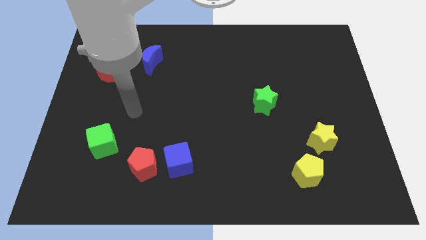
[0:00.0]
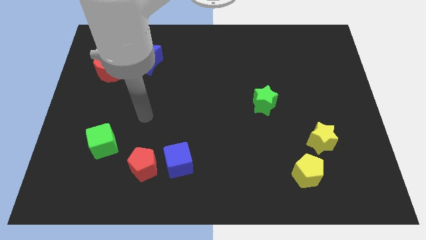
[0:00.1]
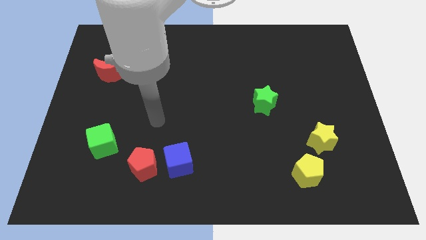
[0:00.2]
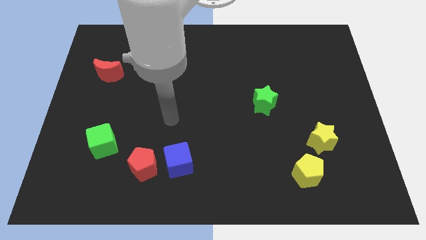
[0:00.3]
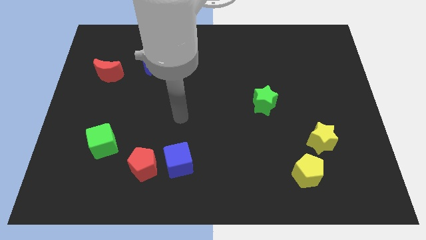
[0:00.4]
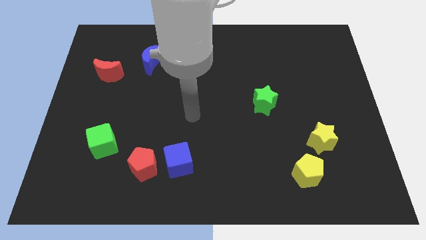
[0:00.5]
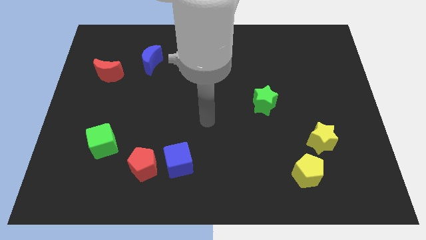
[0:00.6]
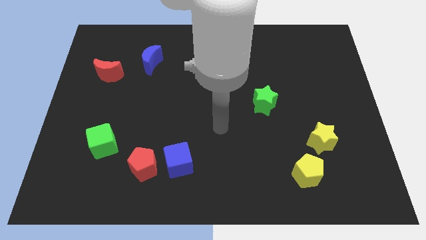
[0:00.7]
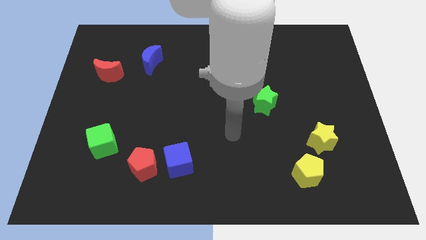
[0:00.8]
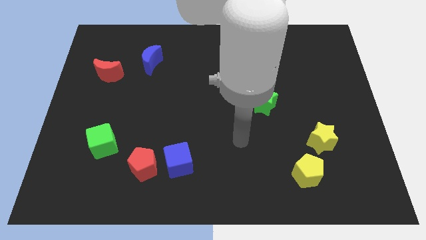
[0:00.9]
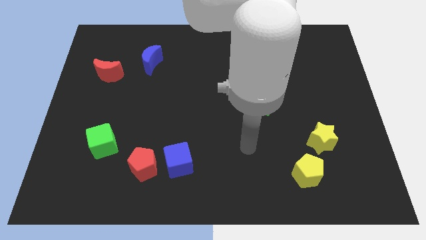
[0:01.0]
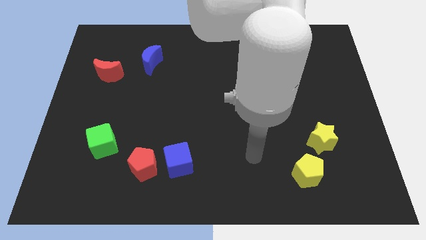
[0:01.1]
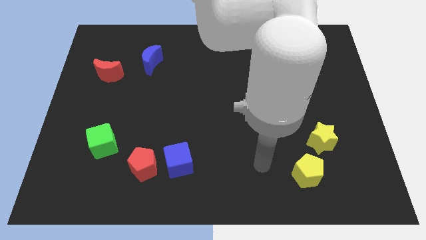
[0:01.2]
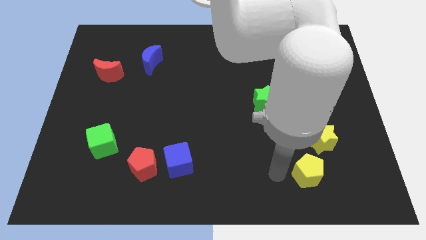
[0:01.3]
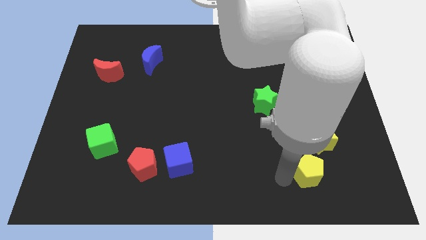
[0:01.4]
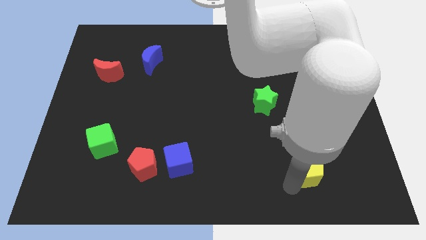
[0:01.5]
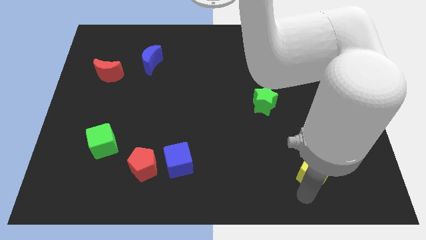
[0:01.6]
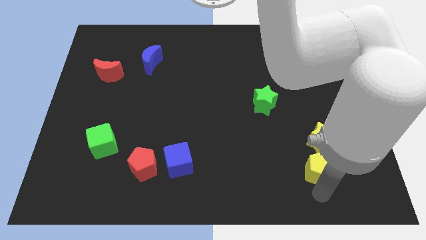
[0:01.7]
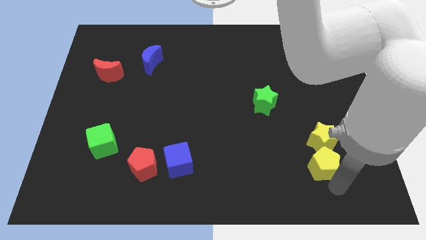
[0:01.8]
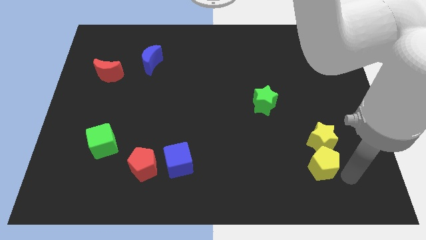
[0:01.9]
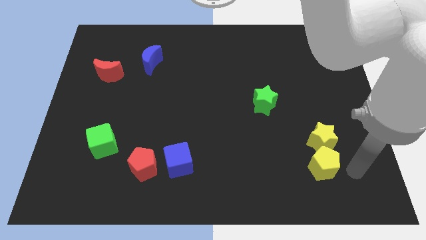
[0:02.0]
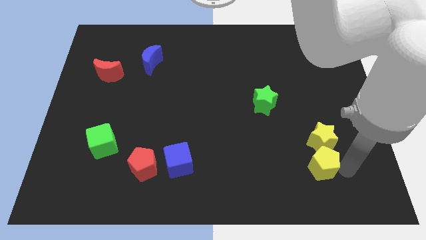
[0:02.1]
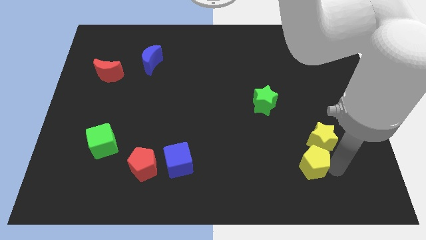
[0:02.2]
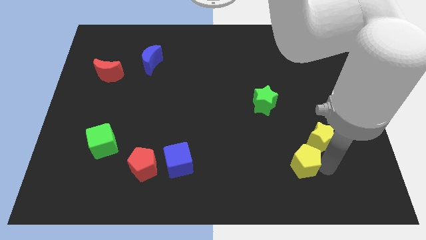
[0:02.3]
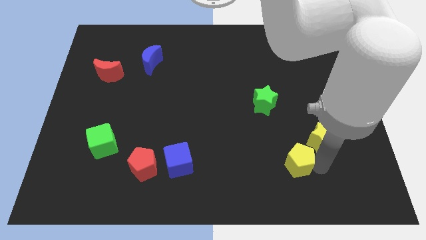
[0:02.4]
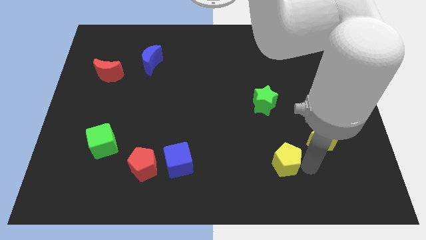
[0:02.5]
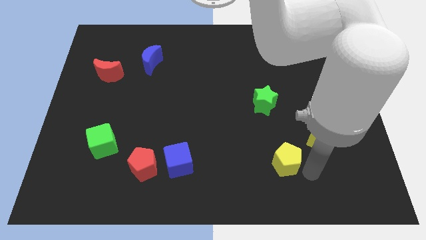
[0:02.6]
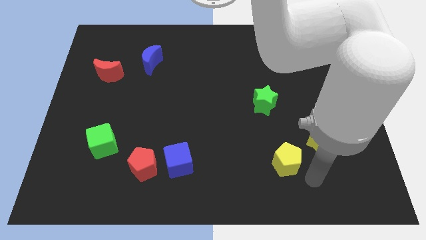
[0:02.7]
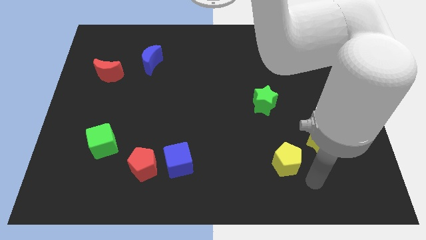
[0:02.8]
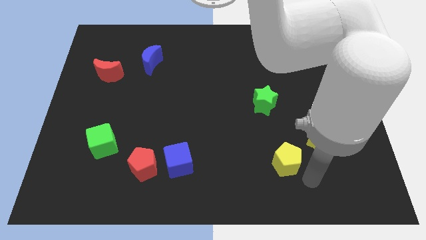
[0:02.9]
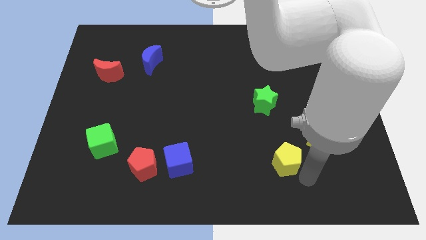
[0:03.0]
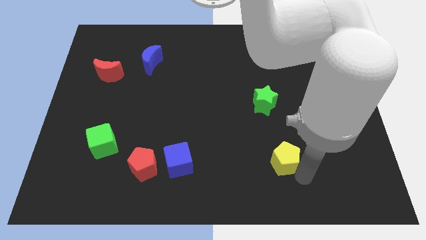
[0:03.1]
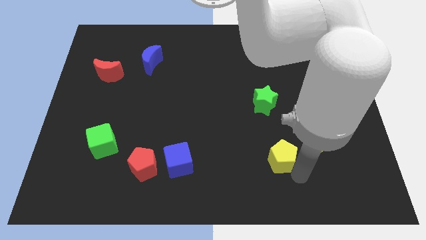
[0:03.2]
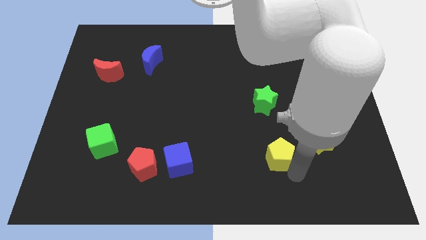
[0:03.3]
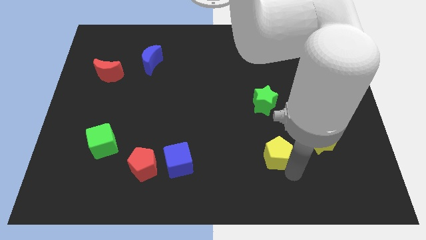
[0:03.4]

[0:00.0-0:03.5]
slightly slide the yellow pentagon up and to the left

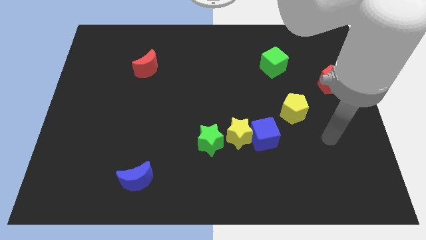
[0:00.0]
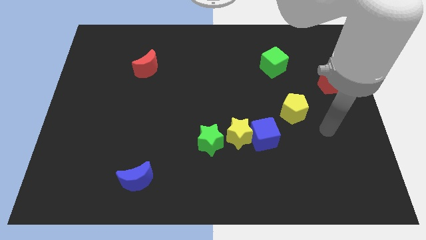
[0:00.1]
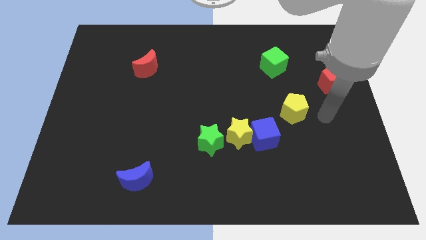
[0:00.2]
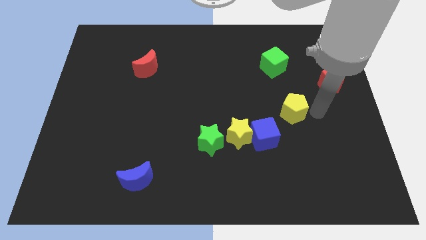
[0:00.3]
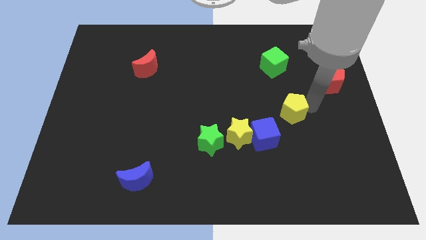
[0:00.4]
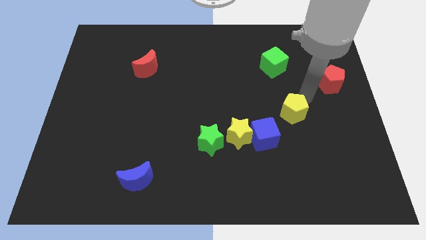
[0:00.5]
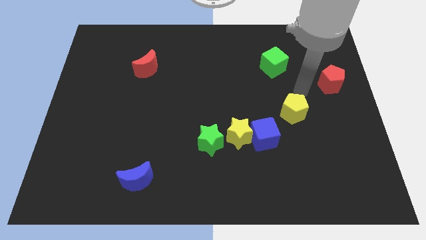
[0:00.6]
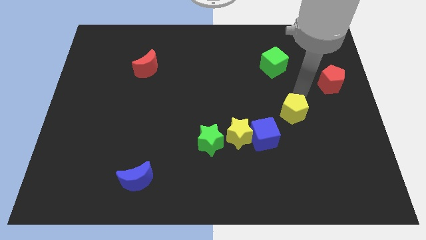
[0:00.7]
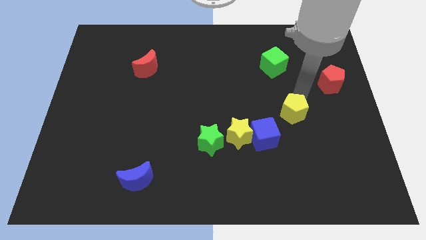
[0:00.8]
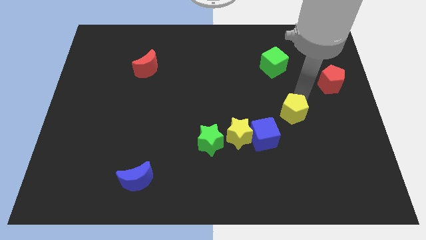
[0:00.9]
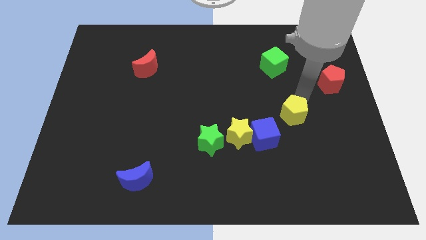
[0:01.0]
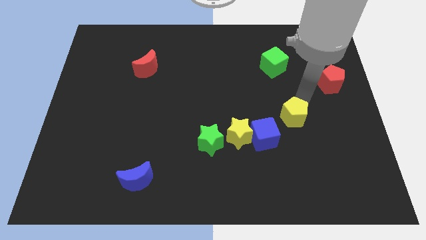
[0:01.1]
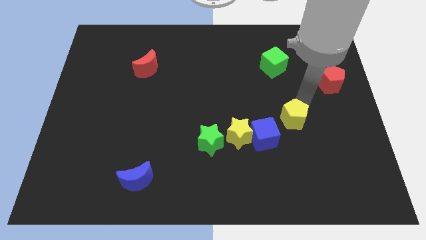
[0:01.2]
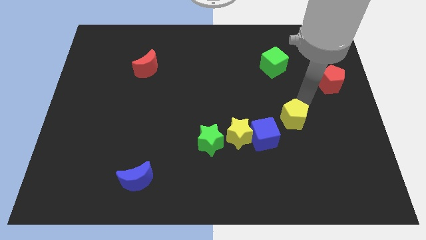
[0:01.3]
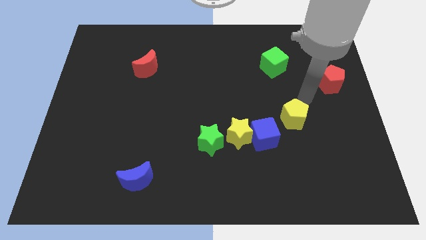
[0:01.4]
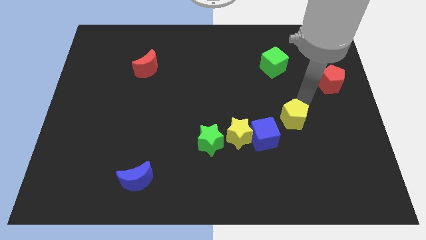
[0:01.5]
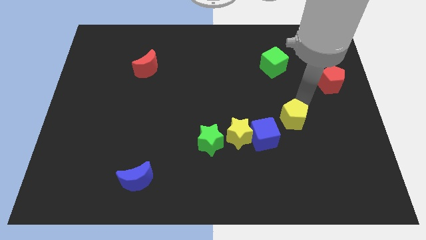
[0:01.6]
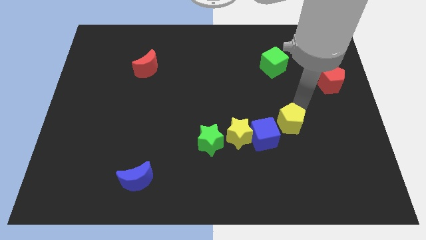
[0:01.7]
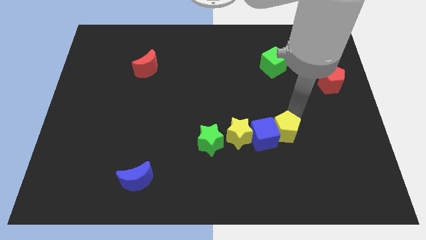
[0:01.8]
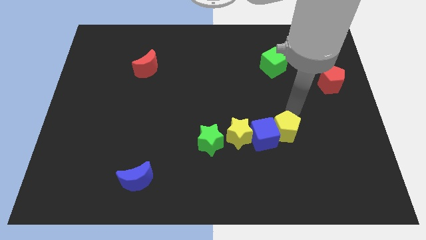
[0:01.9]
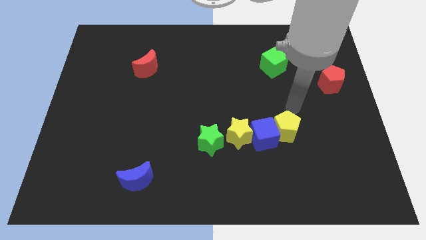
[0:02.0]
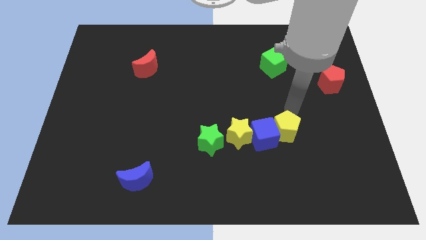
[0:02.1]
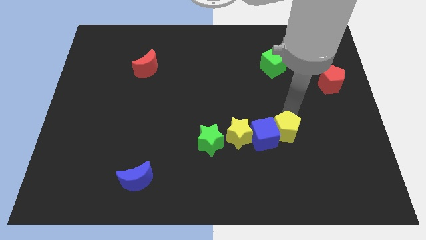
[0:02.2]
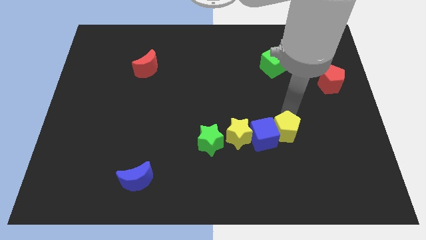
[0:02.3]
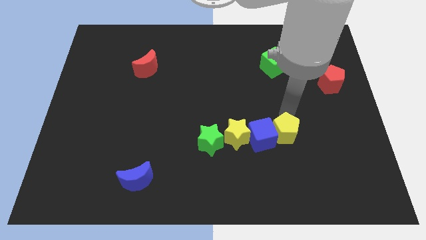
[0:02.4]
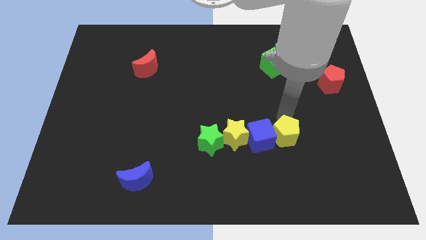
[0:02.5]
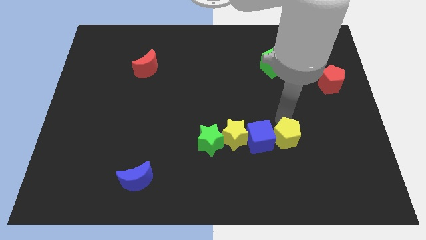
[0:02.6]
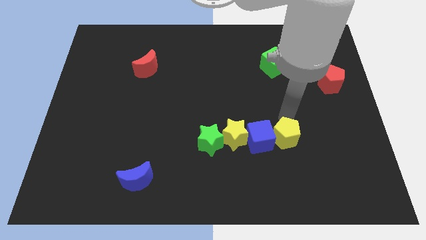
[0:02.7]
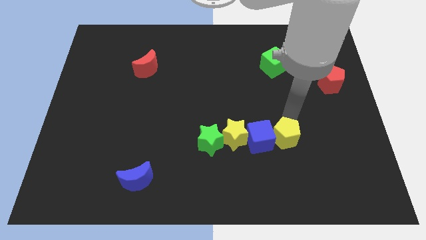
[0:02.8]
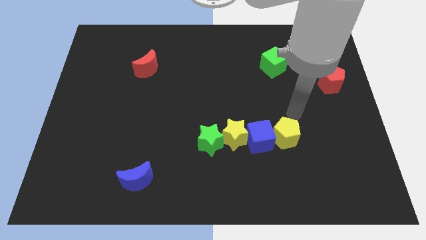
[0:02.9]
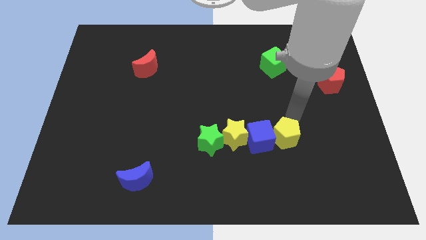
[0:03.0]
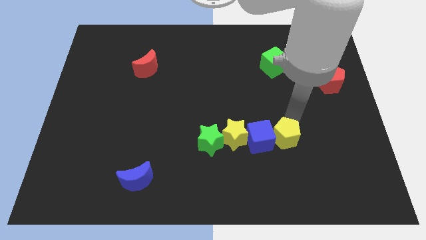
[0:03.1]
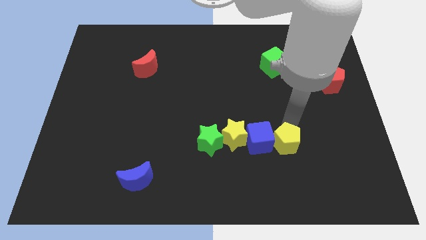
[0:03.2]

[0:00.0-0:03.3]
slide the yellow pentagon a little bit down and left diagonally

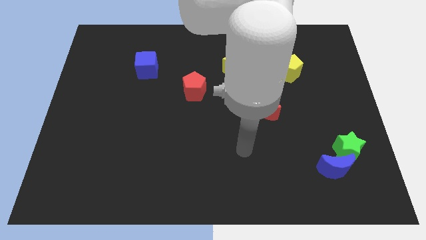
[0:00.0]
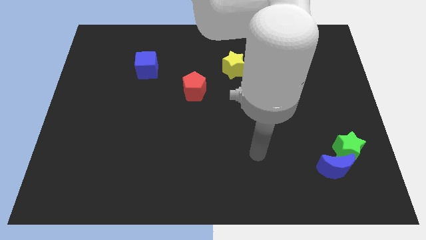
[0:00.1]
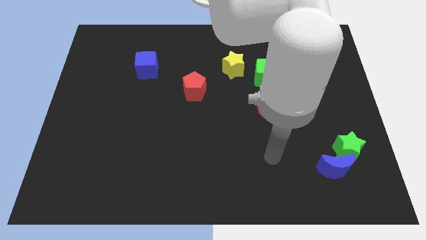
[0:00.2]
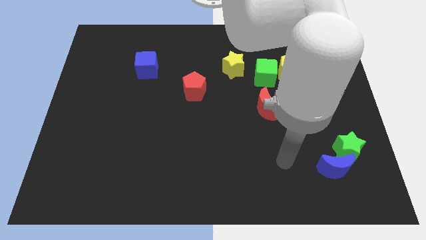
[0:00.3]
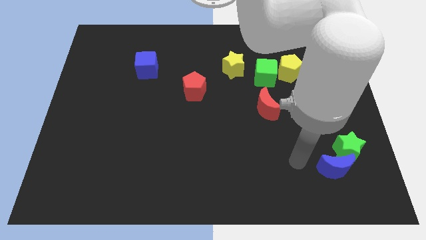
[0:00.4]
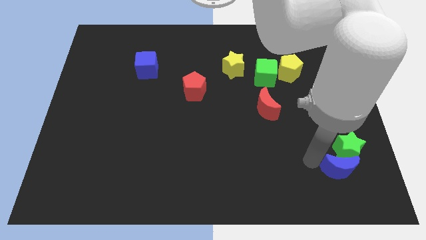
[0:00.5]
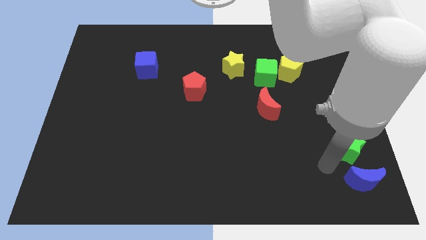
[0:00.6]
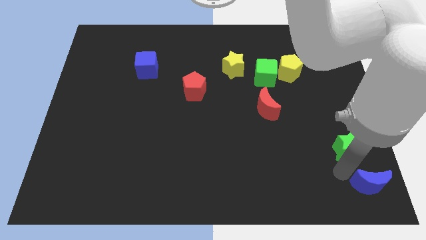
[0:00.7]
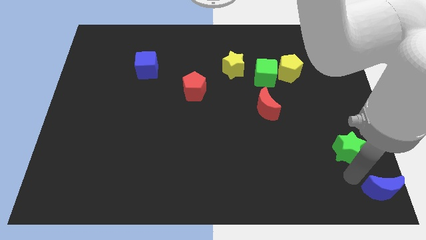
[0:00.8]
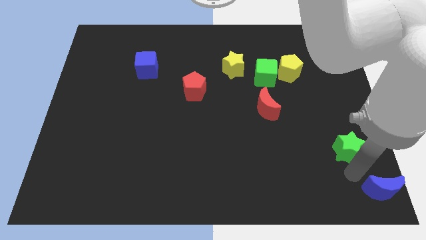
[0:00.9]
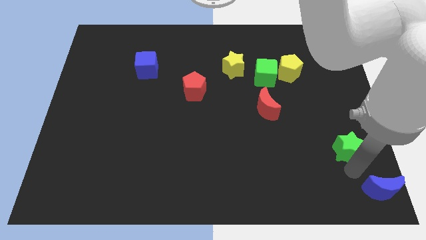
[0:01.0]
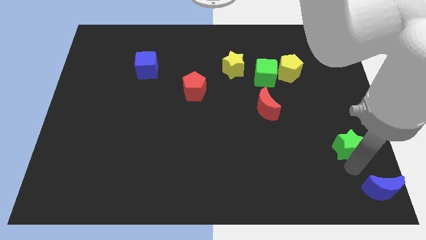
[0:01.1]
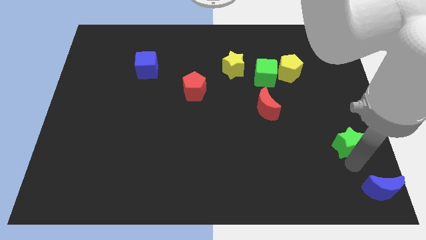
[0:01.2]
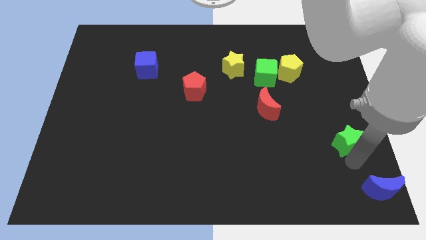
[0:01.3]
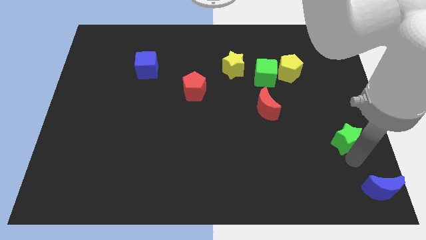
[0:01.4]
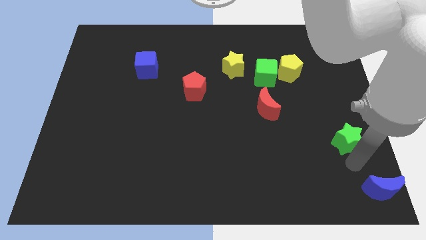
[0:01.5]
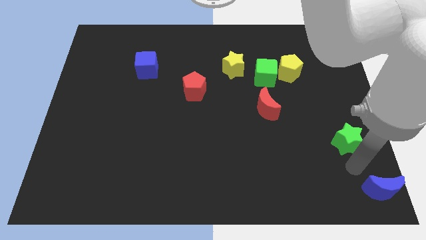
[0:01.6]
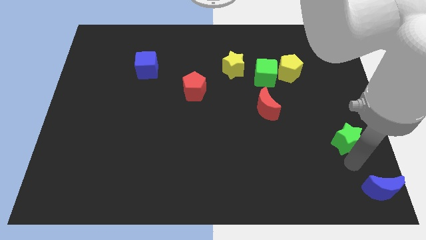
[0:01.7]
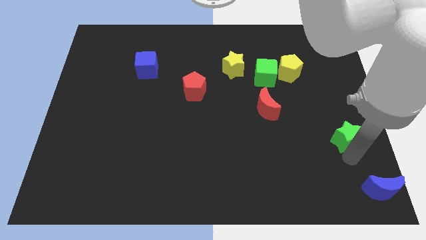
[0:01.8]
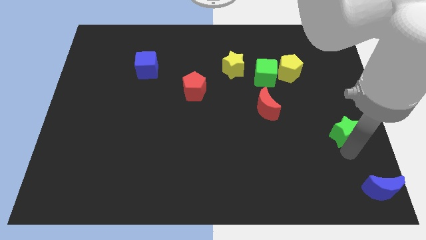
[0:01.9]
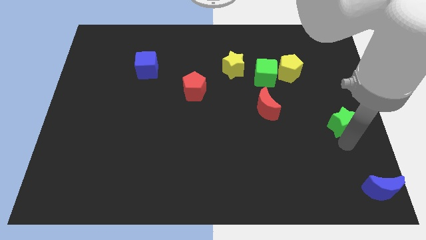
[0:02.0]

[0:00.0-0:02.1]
move the green star upwards a little
